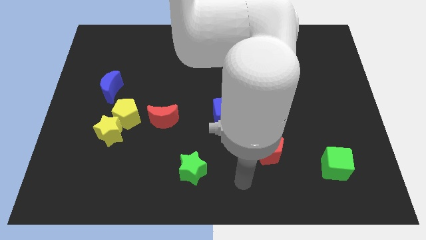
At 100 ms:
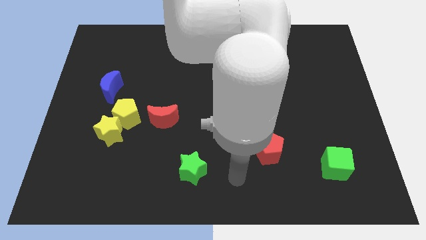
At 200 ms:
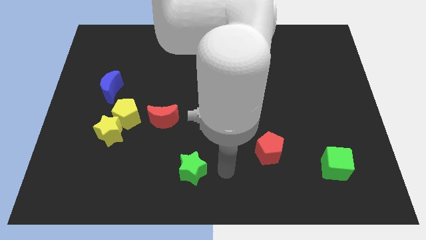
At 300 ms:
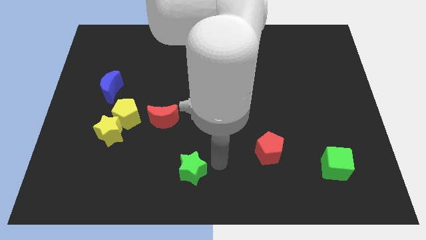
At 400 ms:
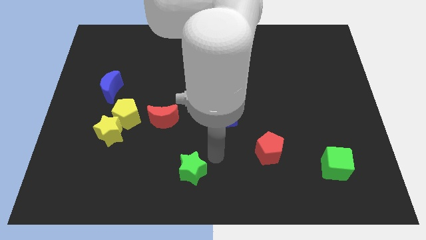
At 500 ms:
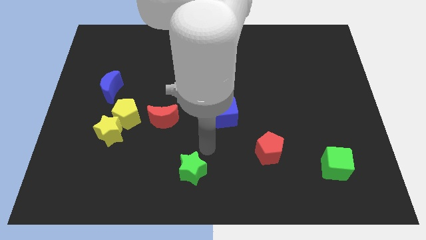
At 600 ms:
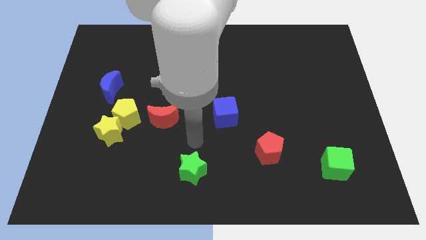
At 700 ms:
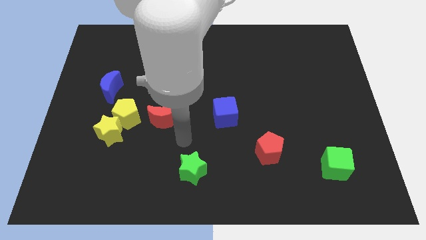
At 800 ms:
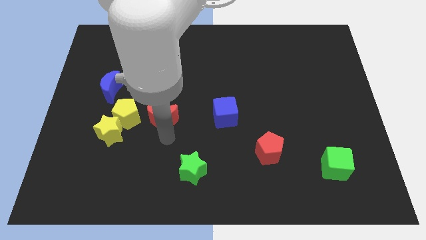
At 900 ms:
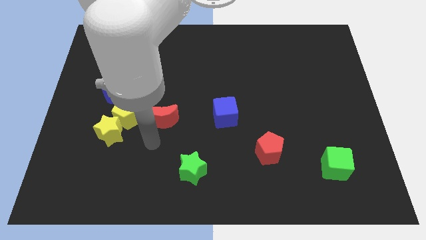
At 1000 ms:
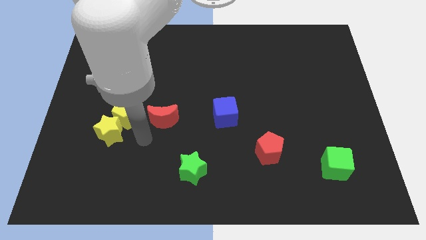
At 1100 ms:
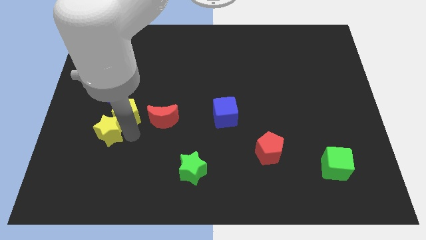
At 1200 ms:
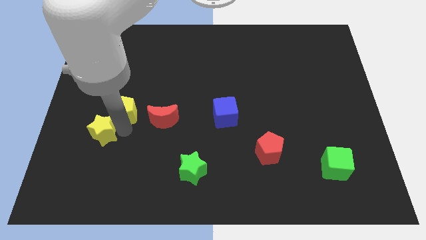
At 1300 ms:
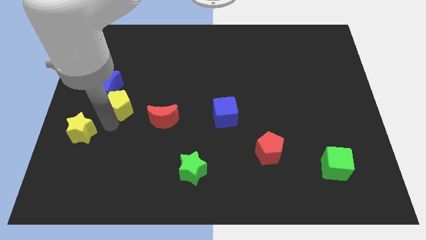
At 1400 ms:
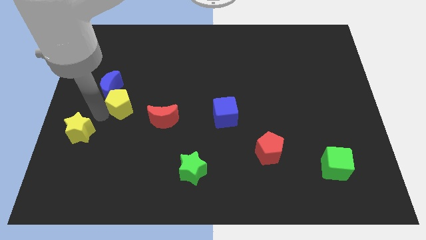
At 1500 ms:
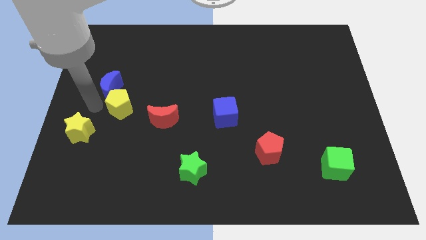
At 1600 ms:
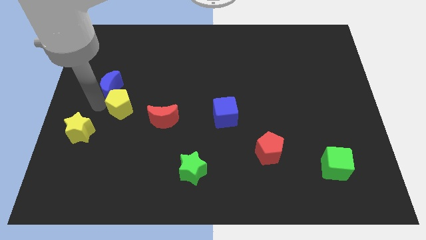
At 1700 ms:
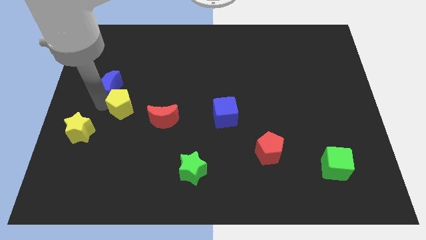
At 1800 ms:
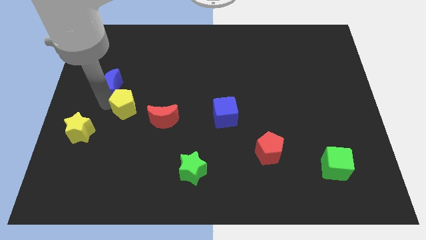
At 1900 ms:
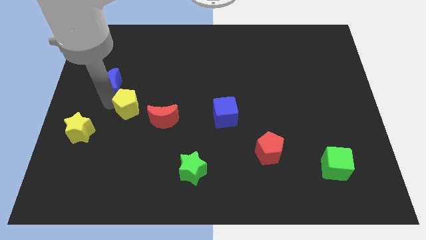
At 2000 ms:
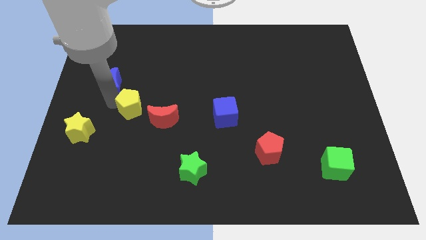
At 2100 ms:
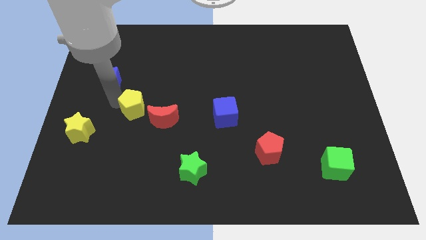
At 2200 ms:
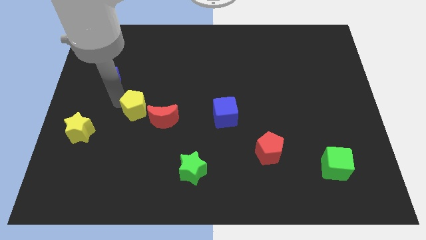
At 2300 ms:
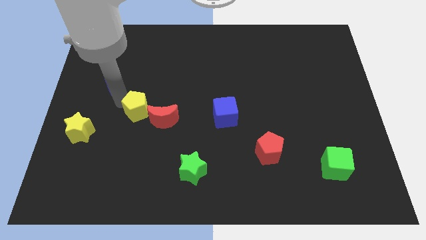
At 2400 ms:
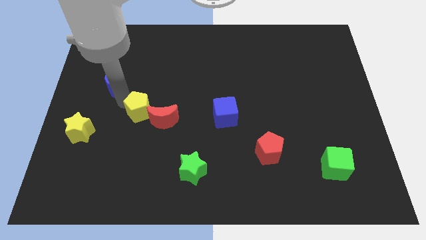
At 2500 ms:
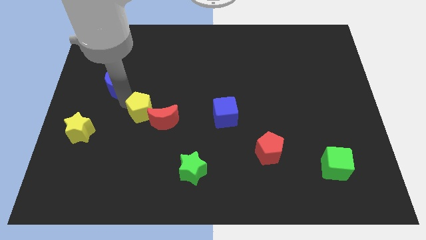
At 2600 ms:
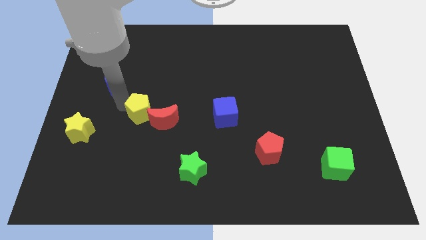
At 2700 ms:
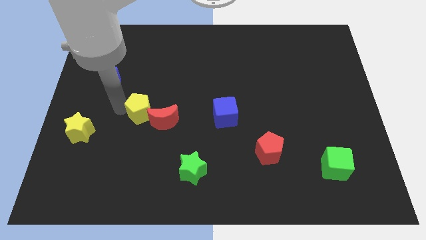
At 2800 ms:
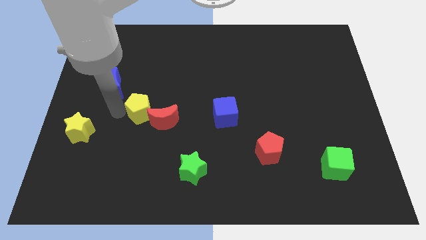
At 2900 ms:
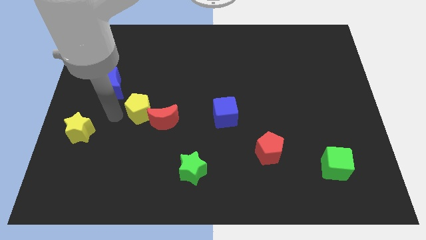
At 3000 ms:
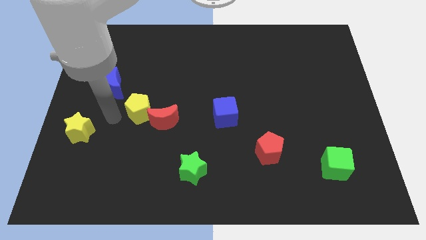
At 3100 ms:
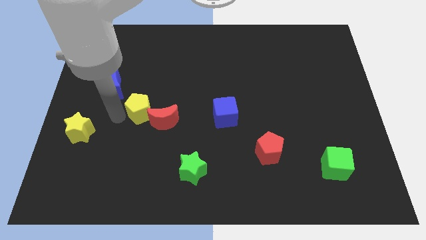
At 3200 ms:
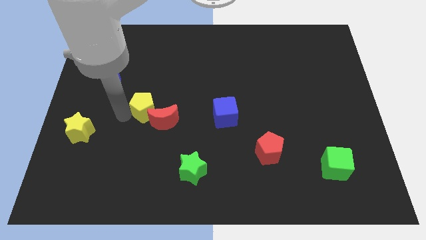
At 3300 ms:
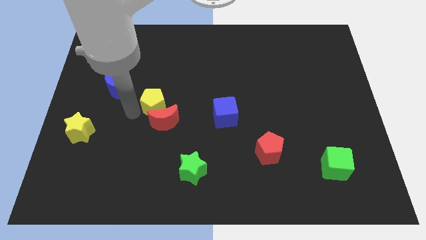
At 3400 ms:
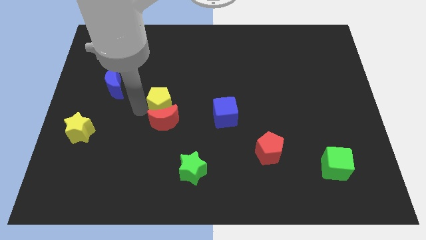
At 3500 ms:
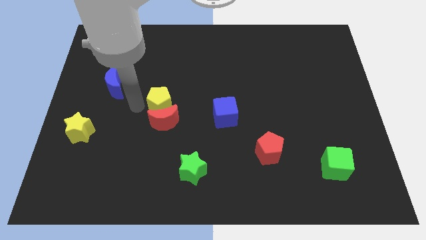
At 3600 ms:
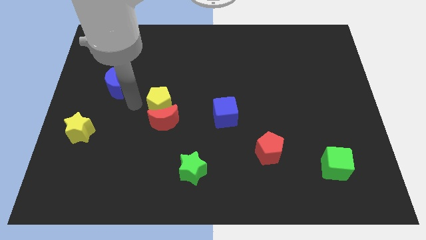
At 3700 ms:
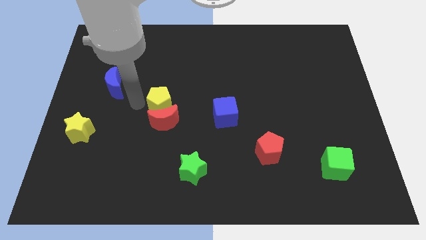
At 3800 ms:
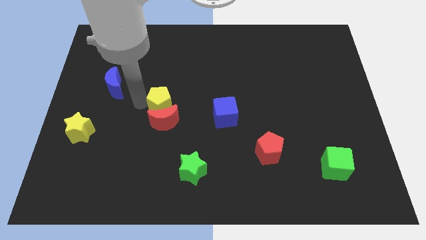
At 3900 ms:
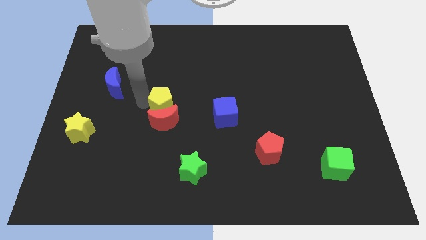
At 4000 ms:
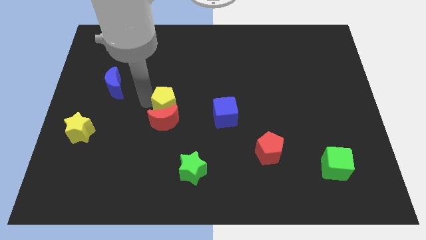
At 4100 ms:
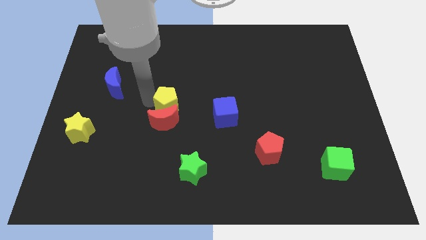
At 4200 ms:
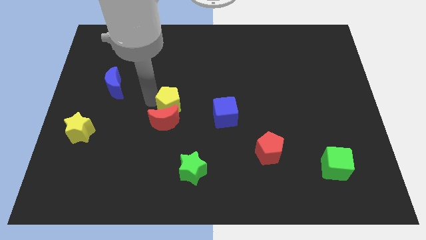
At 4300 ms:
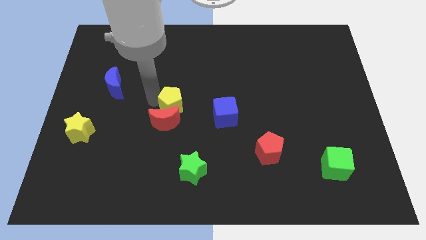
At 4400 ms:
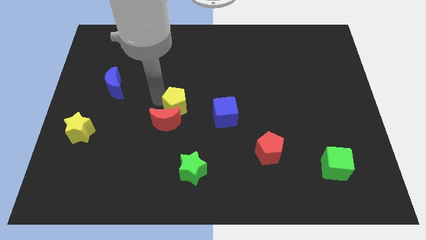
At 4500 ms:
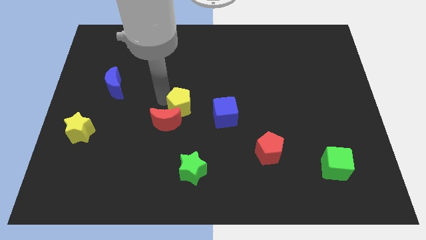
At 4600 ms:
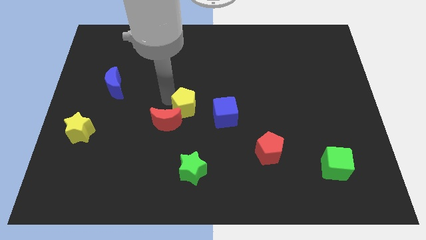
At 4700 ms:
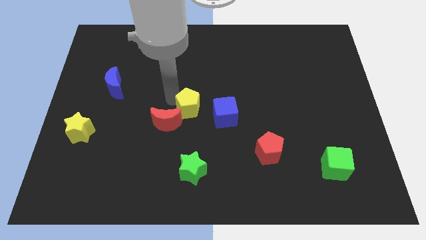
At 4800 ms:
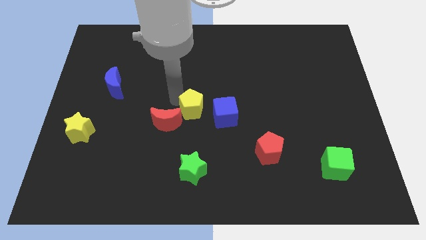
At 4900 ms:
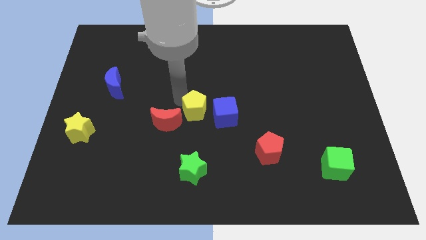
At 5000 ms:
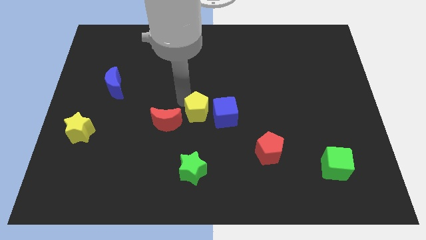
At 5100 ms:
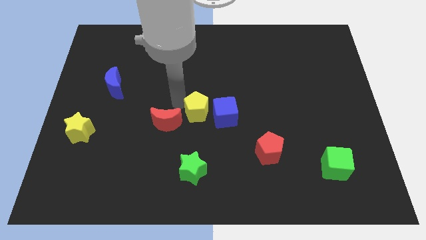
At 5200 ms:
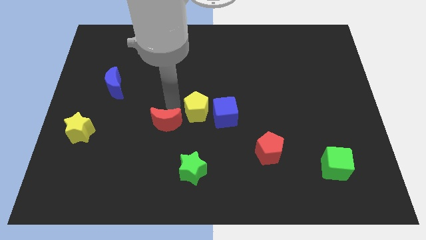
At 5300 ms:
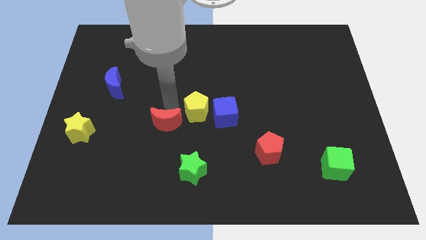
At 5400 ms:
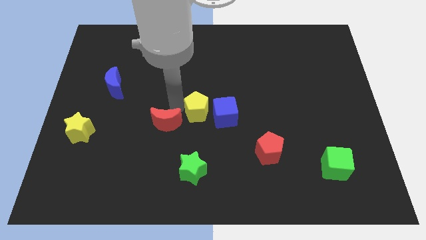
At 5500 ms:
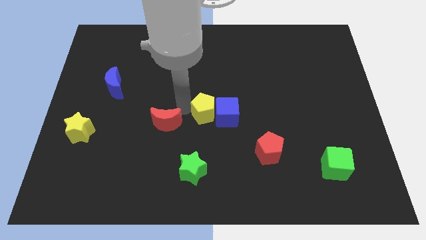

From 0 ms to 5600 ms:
move the yellow pentagon towards the blue cube

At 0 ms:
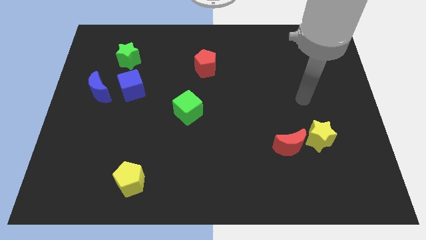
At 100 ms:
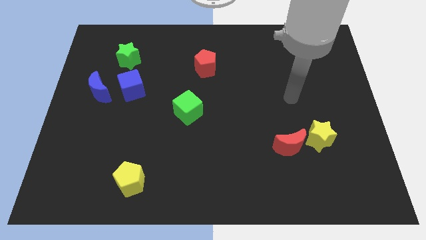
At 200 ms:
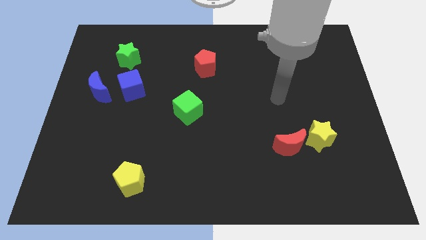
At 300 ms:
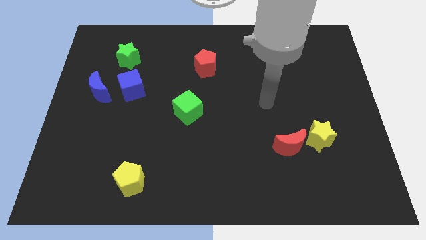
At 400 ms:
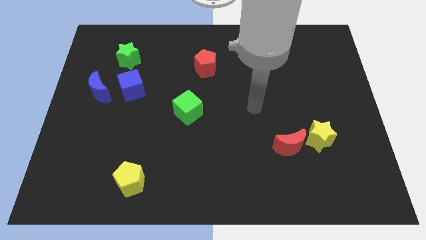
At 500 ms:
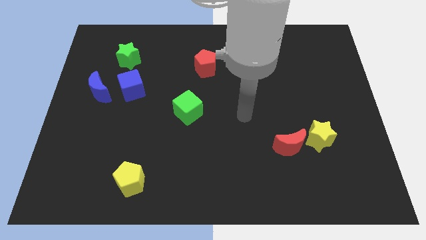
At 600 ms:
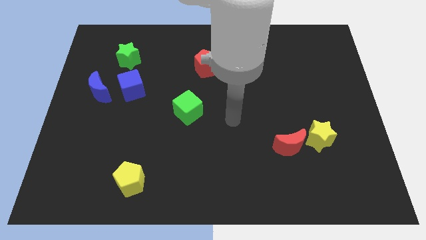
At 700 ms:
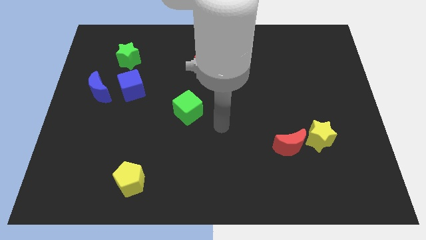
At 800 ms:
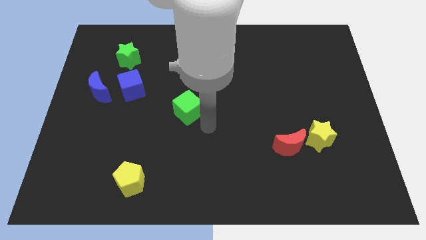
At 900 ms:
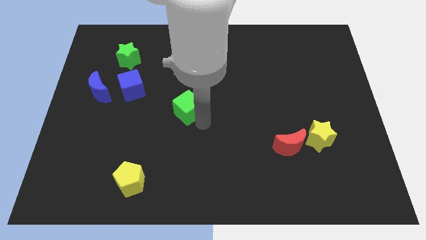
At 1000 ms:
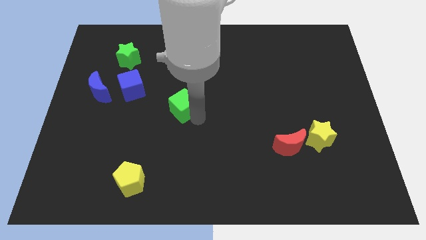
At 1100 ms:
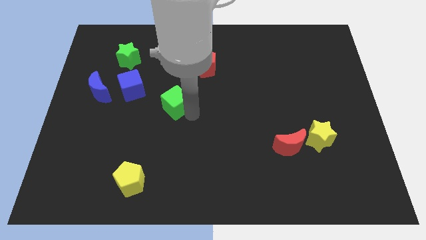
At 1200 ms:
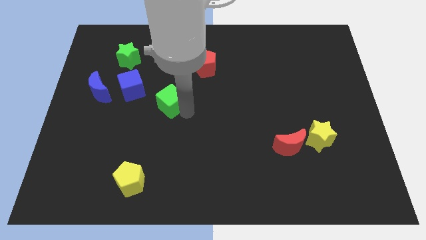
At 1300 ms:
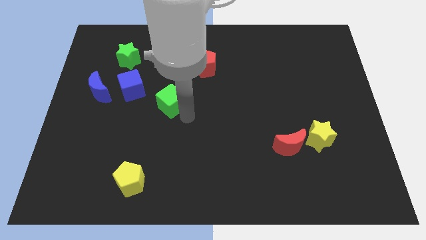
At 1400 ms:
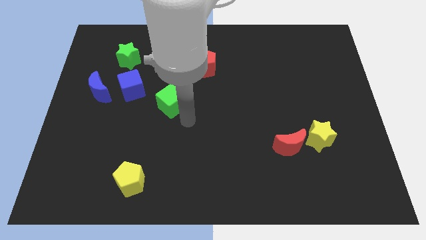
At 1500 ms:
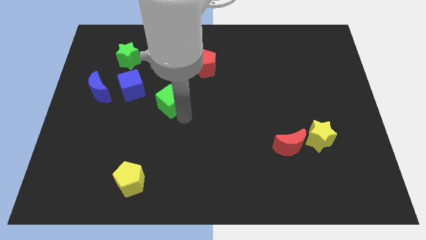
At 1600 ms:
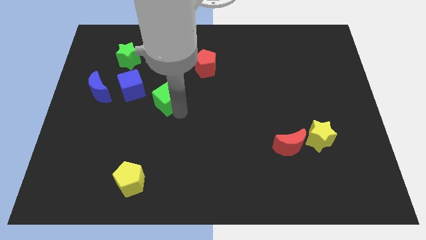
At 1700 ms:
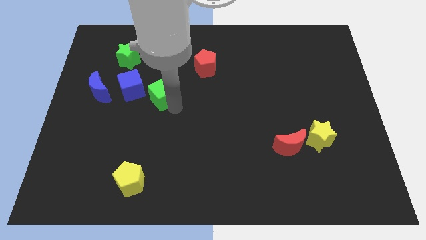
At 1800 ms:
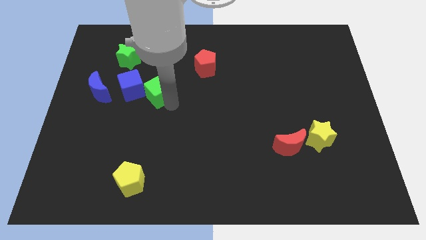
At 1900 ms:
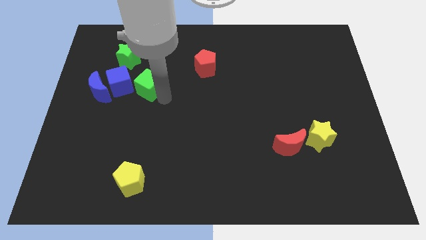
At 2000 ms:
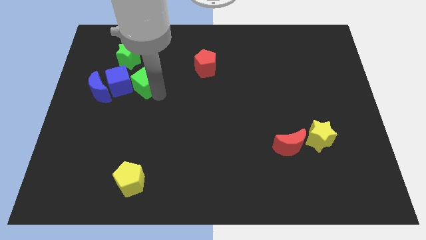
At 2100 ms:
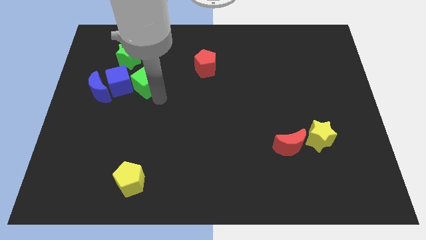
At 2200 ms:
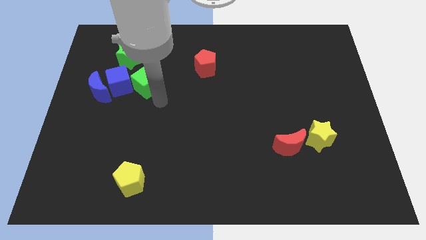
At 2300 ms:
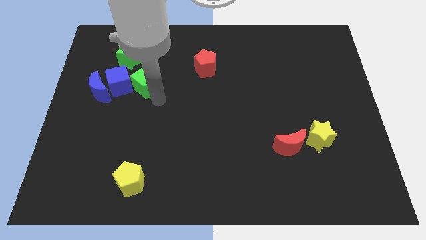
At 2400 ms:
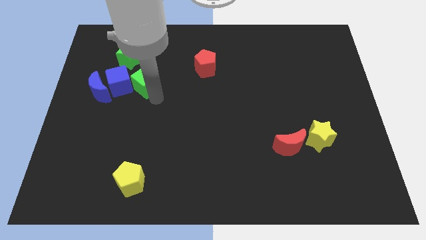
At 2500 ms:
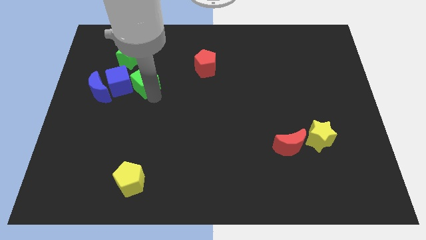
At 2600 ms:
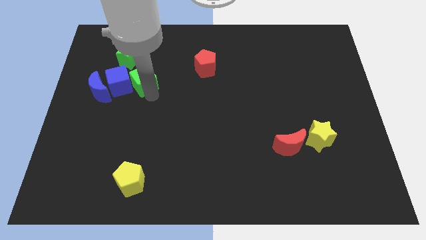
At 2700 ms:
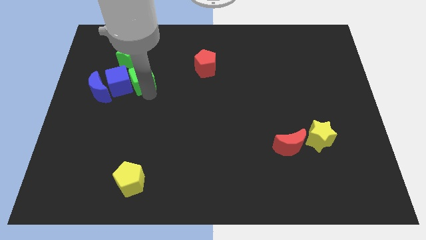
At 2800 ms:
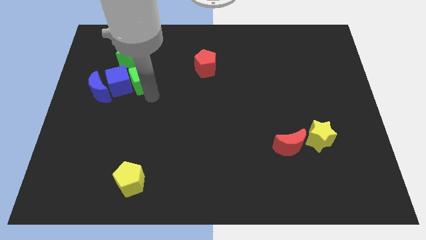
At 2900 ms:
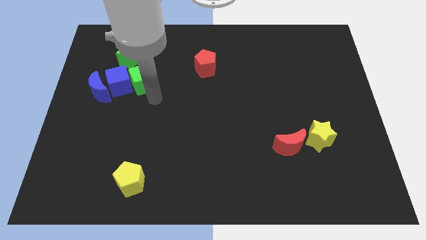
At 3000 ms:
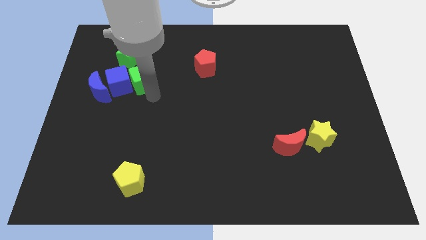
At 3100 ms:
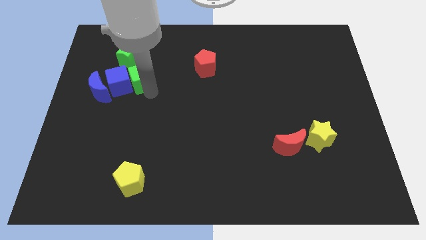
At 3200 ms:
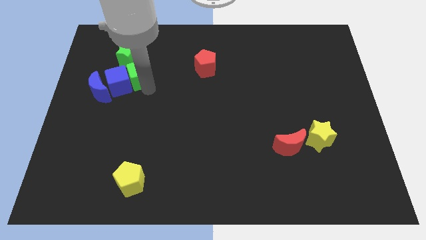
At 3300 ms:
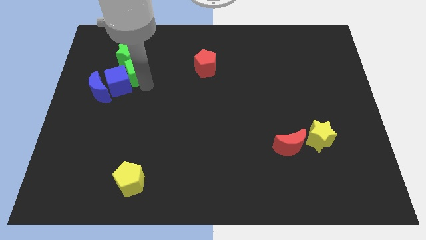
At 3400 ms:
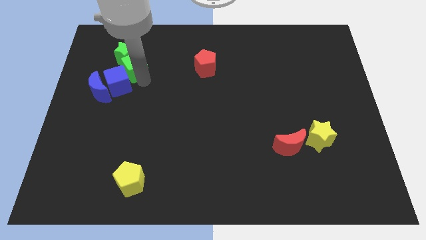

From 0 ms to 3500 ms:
slide the green cube towards the green star
